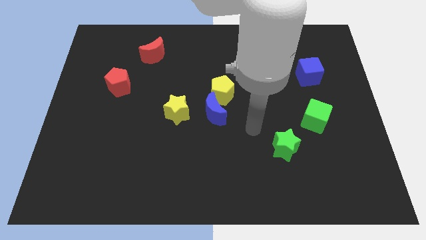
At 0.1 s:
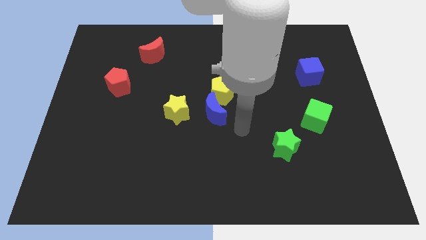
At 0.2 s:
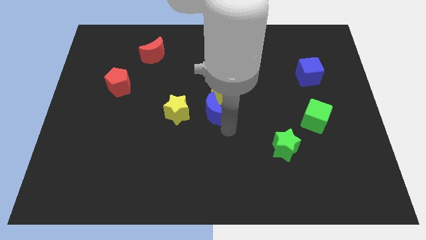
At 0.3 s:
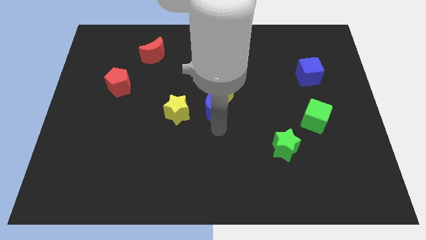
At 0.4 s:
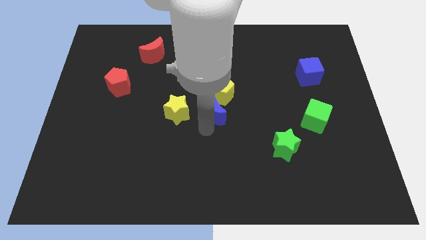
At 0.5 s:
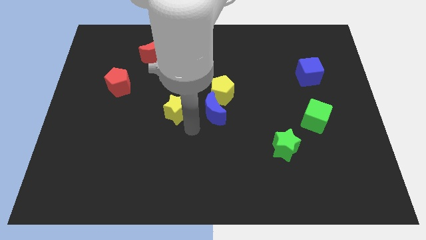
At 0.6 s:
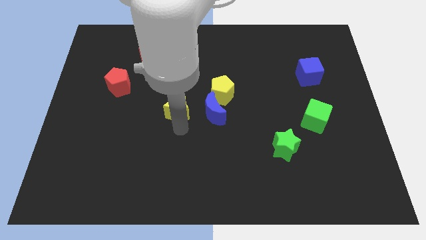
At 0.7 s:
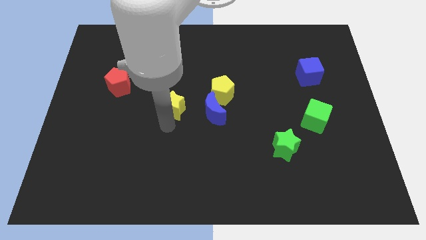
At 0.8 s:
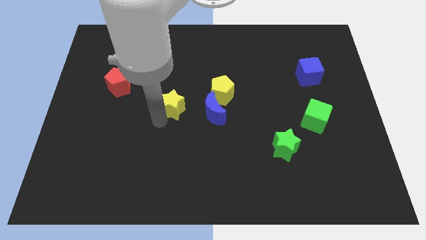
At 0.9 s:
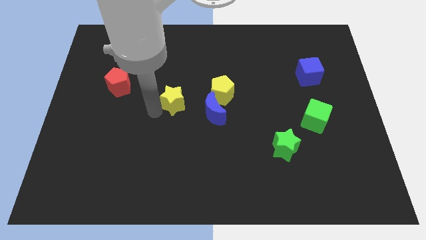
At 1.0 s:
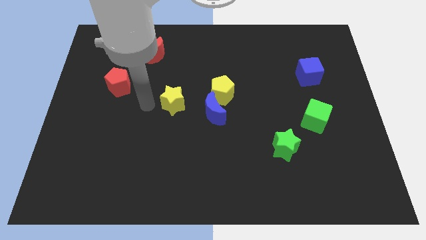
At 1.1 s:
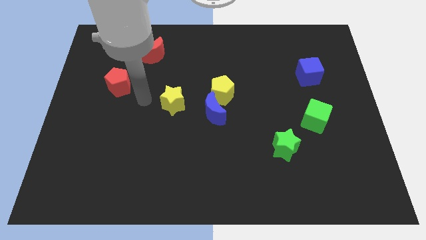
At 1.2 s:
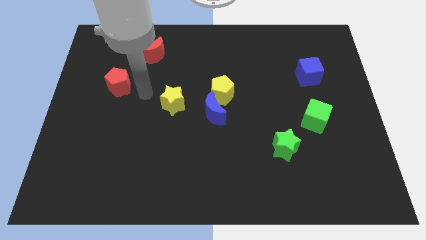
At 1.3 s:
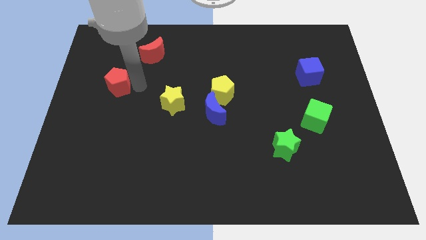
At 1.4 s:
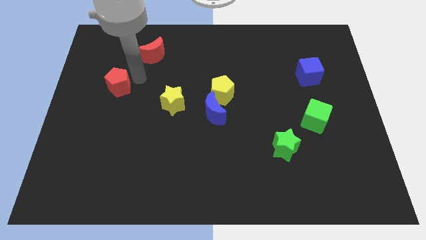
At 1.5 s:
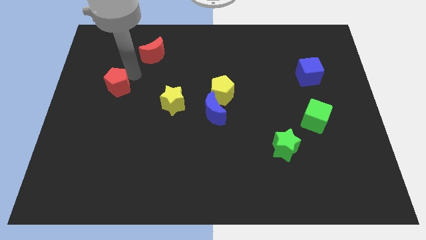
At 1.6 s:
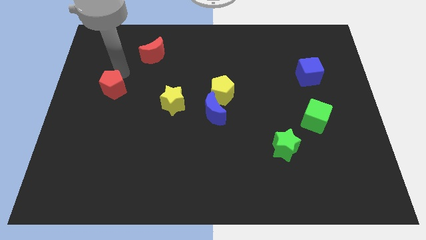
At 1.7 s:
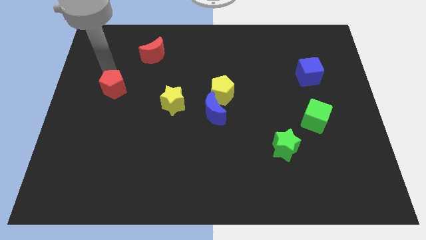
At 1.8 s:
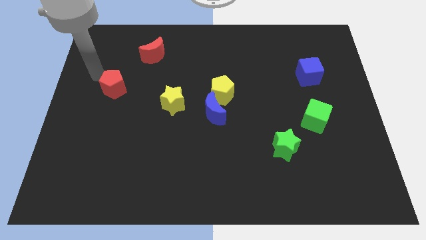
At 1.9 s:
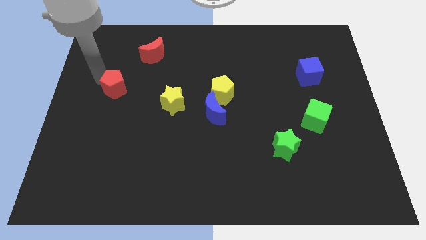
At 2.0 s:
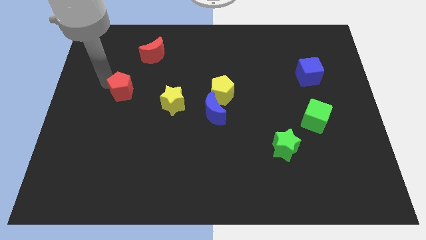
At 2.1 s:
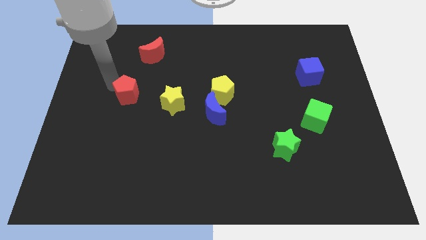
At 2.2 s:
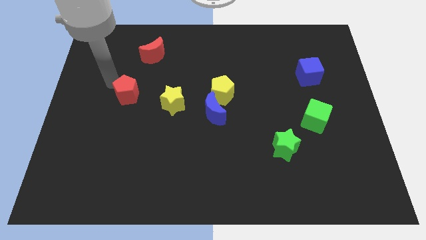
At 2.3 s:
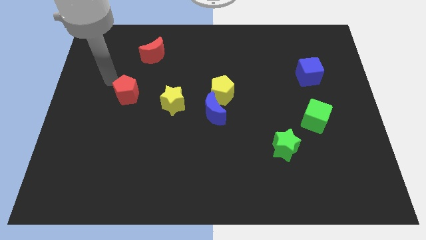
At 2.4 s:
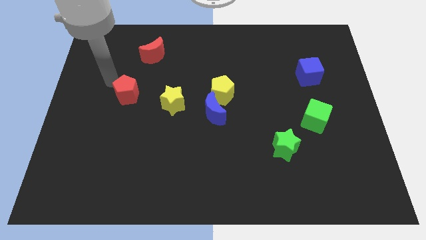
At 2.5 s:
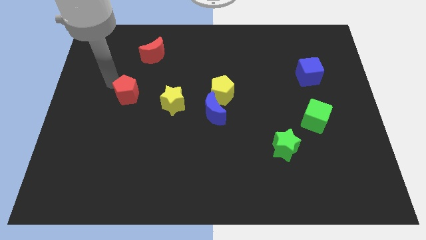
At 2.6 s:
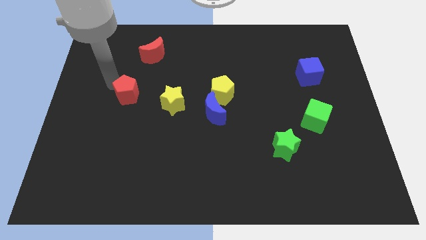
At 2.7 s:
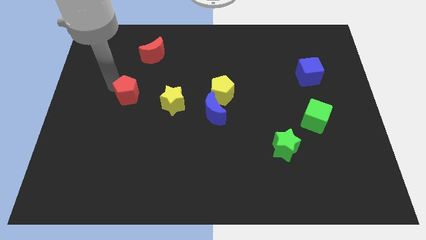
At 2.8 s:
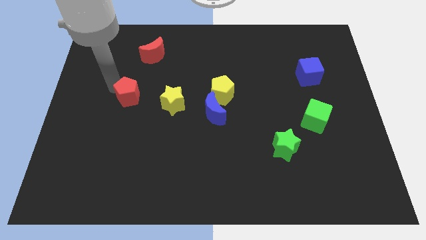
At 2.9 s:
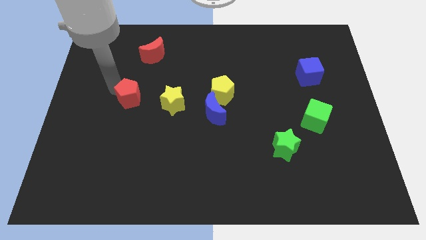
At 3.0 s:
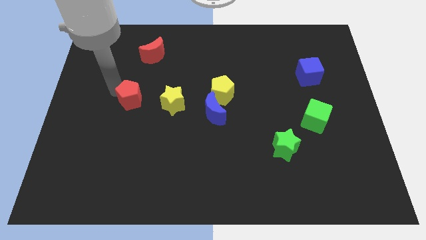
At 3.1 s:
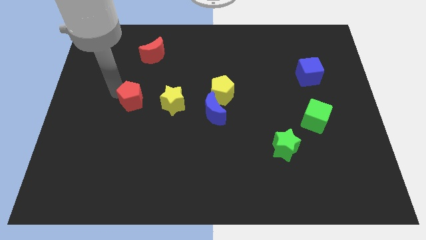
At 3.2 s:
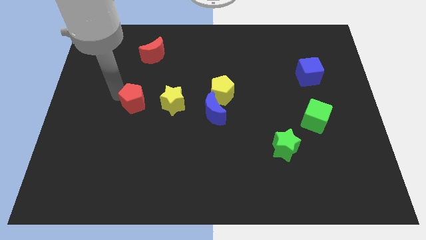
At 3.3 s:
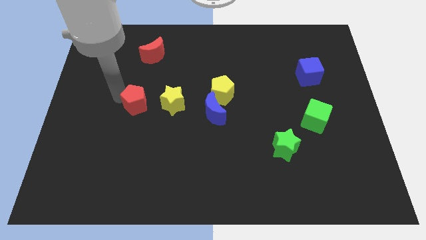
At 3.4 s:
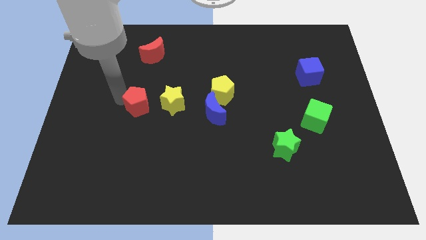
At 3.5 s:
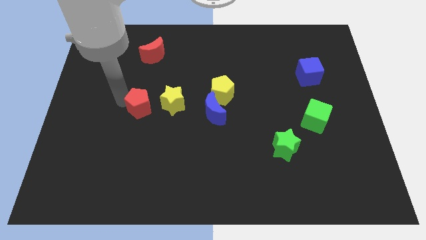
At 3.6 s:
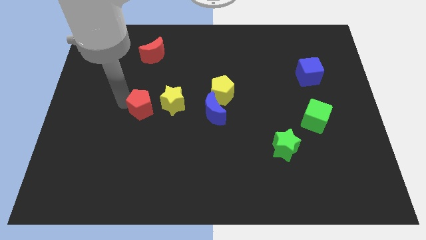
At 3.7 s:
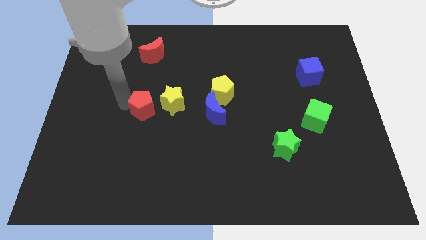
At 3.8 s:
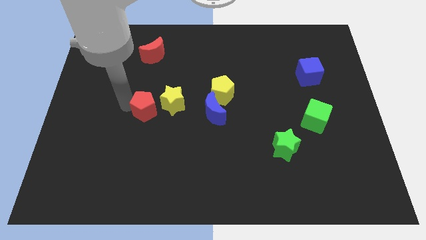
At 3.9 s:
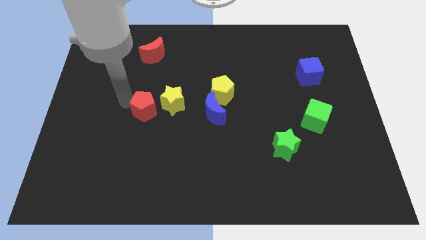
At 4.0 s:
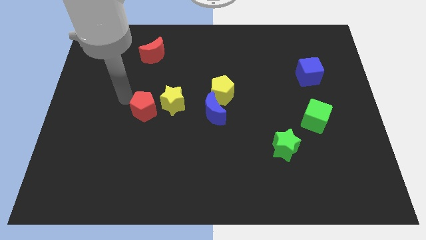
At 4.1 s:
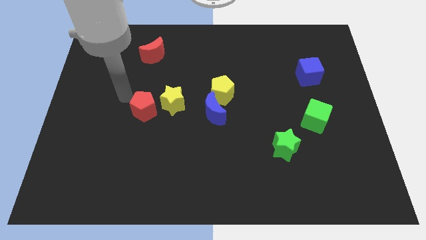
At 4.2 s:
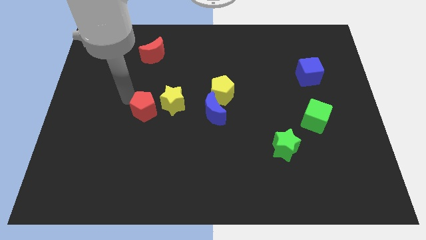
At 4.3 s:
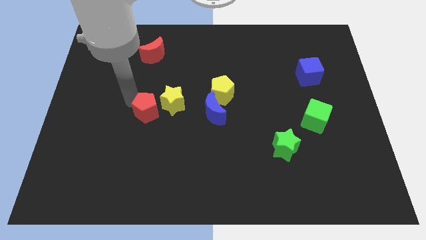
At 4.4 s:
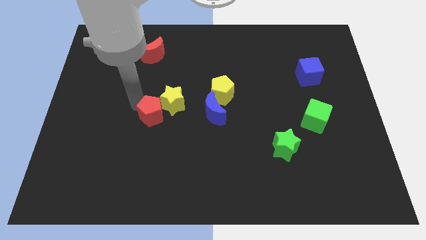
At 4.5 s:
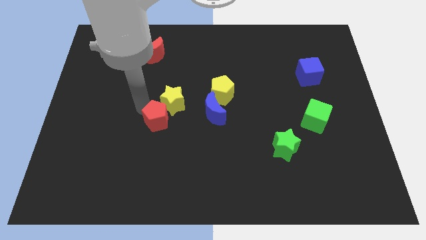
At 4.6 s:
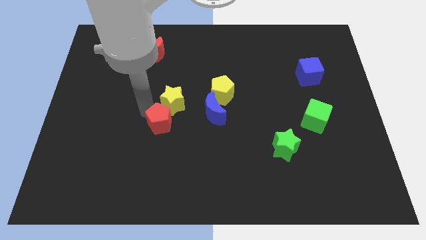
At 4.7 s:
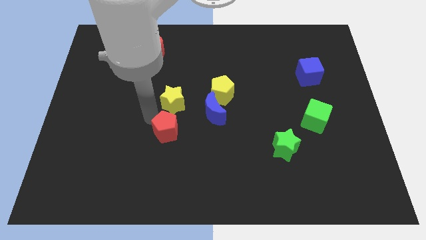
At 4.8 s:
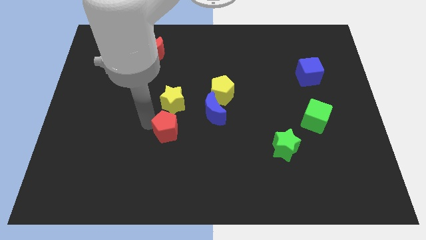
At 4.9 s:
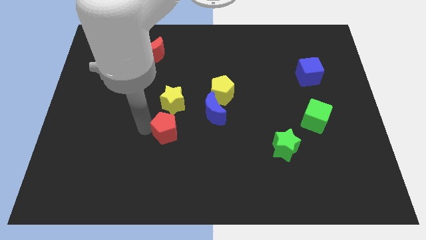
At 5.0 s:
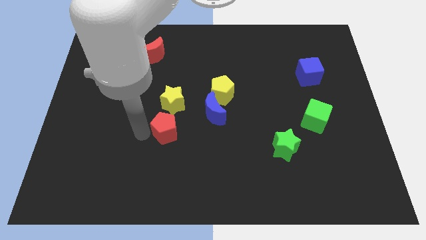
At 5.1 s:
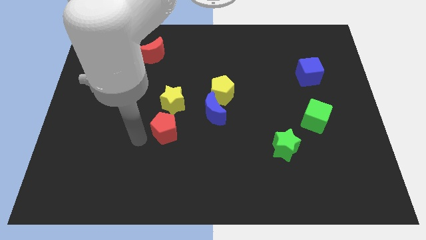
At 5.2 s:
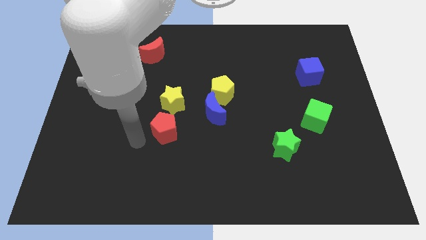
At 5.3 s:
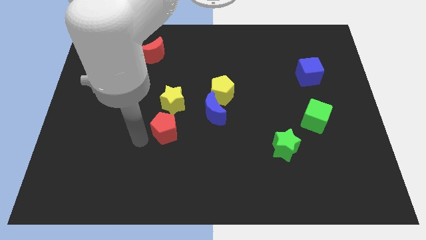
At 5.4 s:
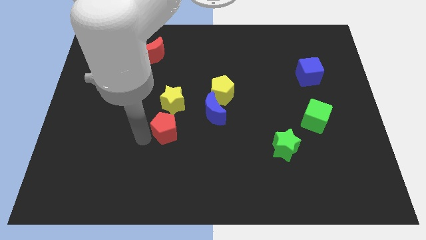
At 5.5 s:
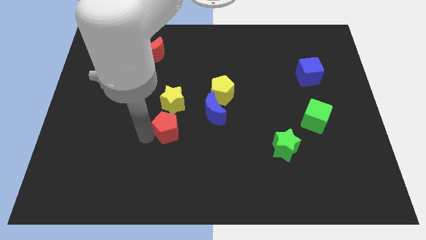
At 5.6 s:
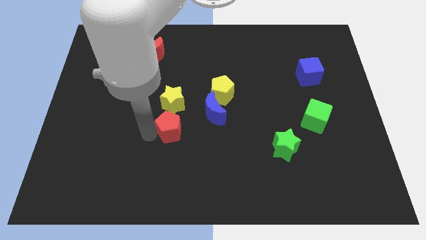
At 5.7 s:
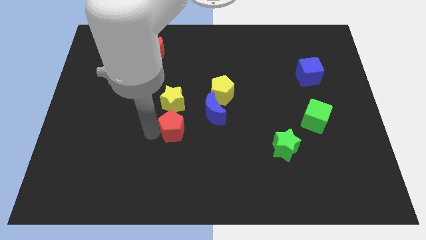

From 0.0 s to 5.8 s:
slide the red pentagon to the bottom right of the yellow star

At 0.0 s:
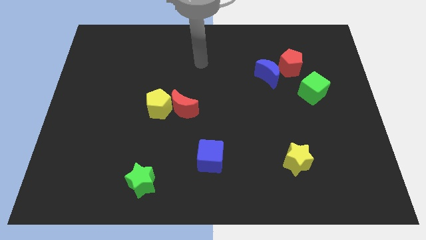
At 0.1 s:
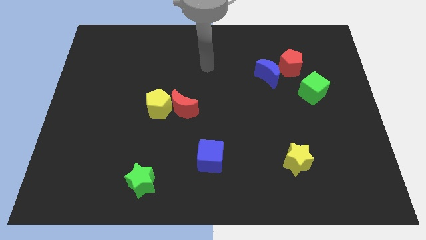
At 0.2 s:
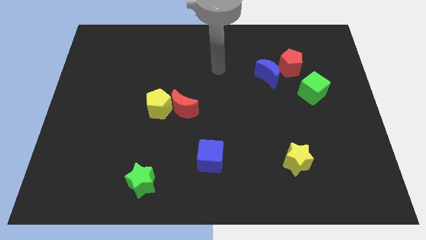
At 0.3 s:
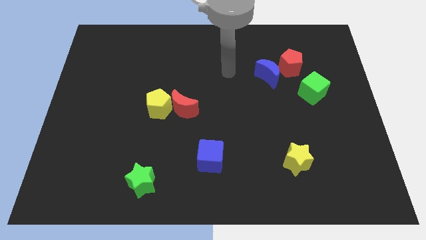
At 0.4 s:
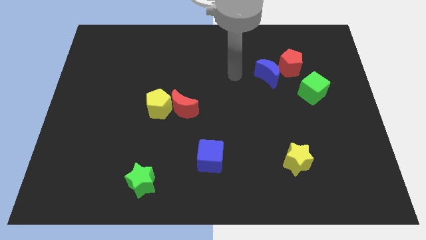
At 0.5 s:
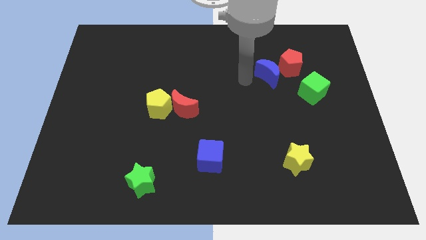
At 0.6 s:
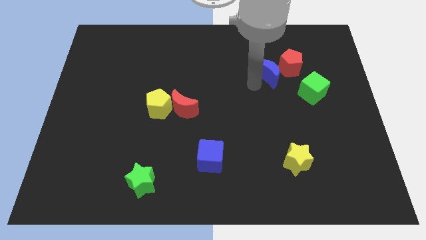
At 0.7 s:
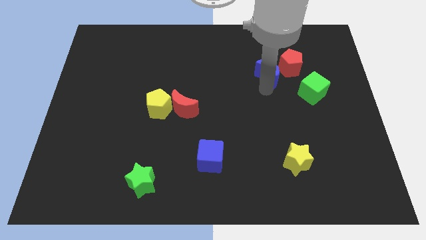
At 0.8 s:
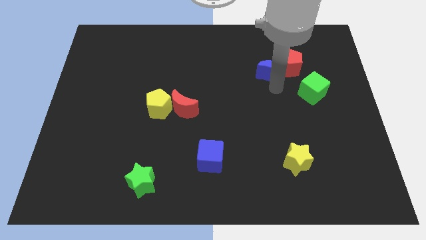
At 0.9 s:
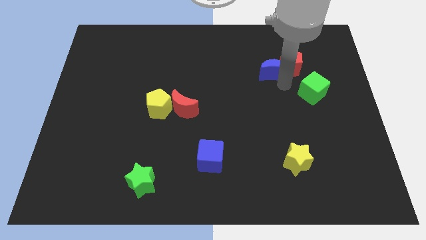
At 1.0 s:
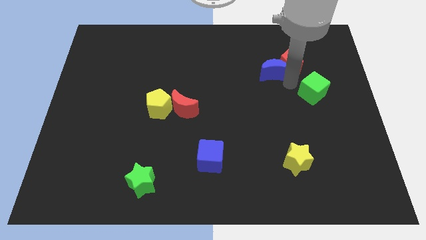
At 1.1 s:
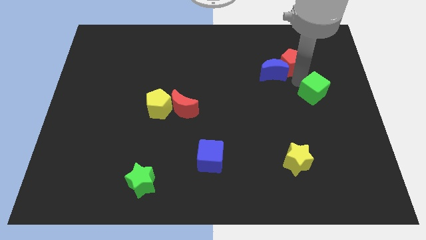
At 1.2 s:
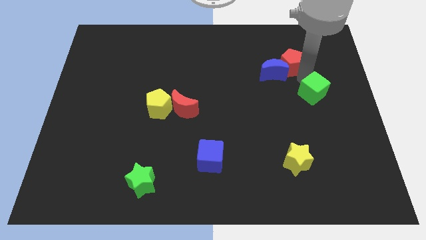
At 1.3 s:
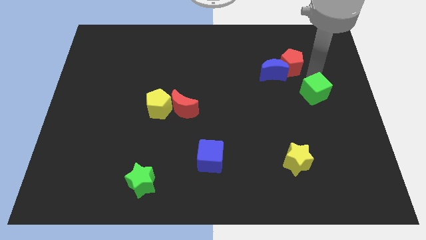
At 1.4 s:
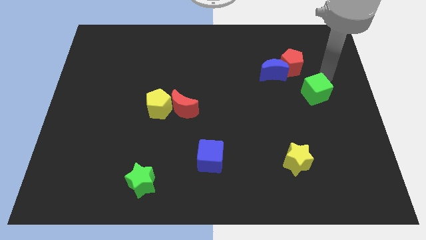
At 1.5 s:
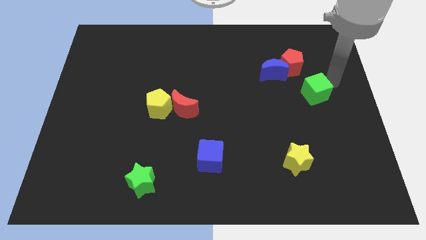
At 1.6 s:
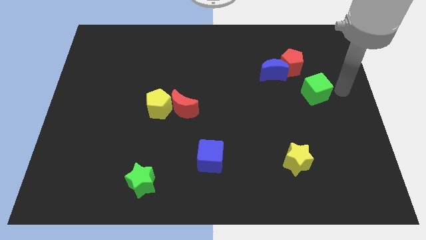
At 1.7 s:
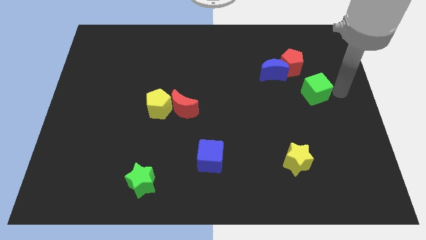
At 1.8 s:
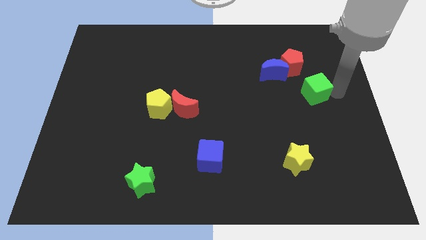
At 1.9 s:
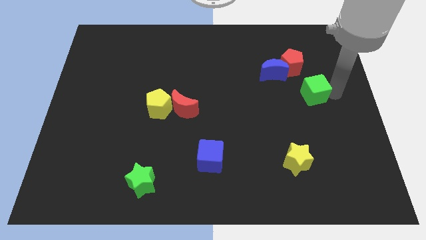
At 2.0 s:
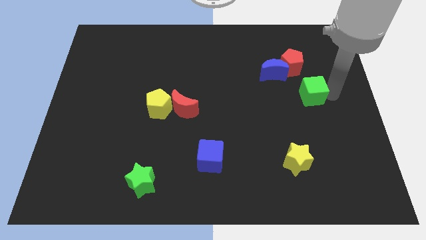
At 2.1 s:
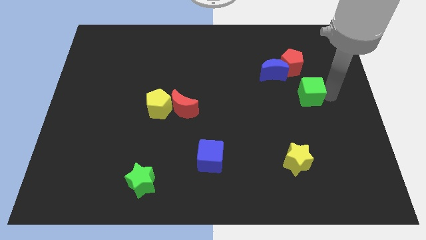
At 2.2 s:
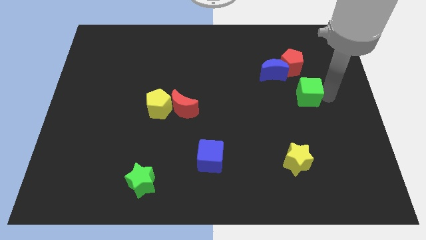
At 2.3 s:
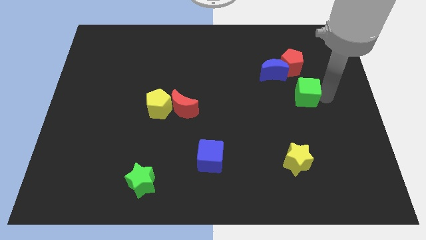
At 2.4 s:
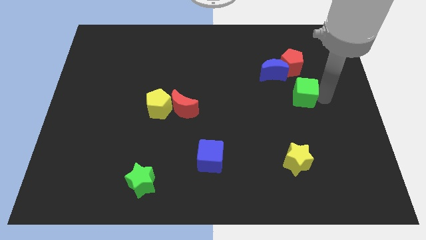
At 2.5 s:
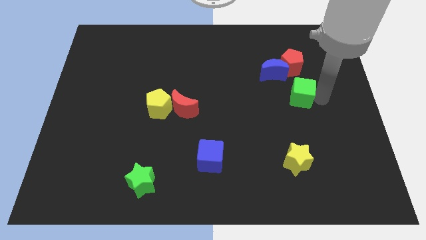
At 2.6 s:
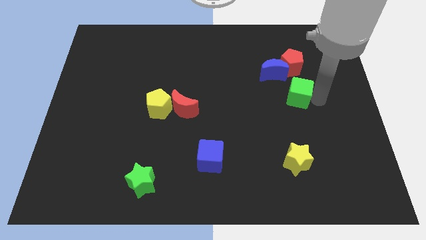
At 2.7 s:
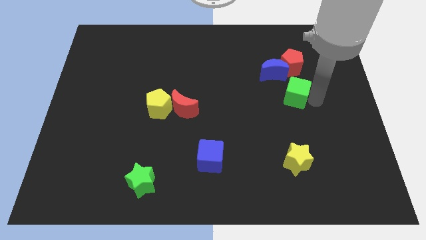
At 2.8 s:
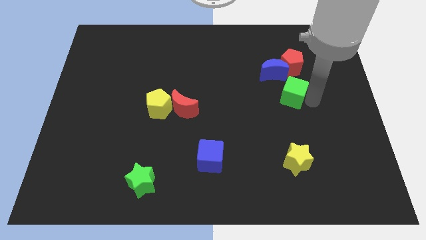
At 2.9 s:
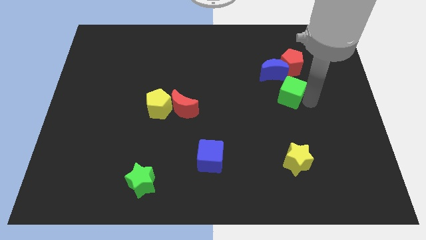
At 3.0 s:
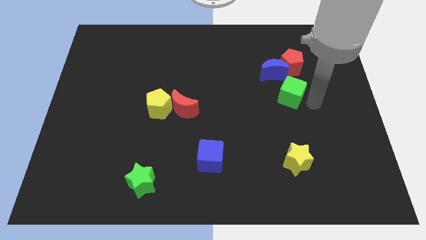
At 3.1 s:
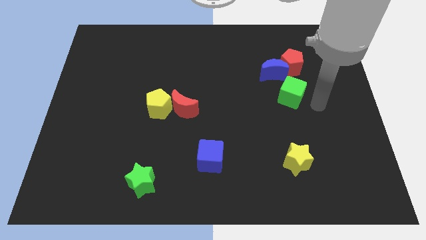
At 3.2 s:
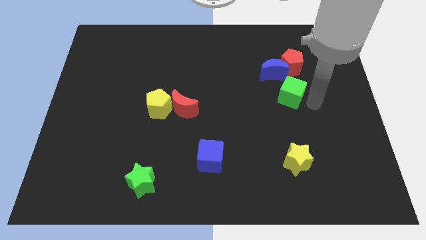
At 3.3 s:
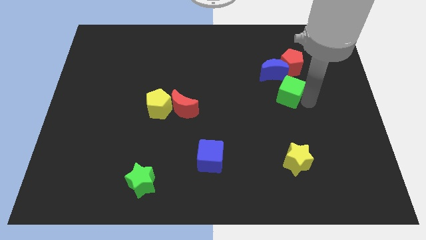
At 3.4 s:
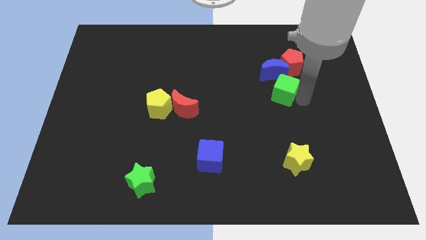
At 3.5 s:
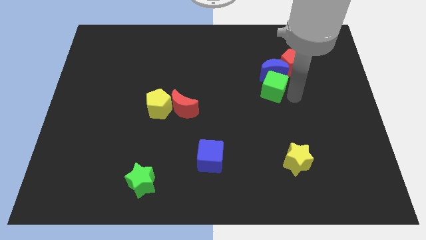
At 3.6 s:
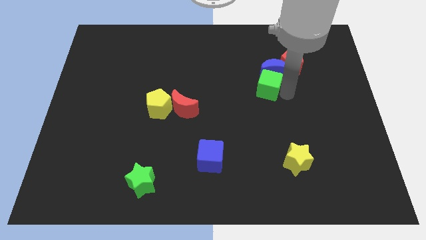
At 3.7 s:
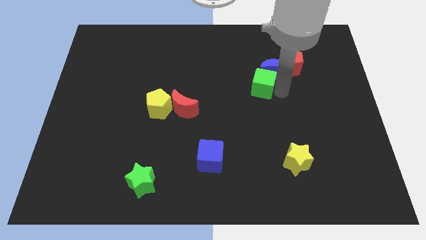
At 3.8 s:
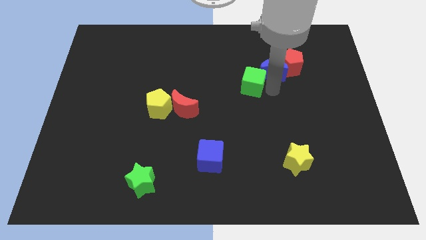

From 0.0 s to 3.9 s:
put the green cube left of the blue moon
